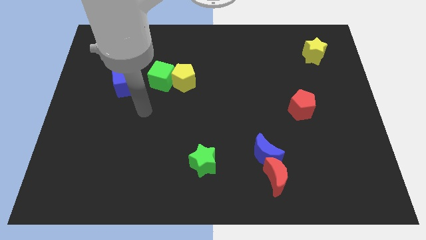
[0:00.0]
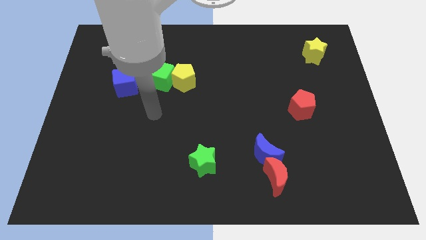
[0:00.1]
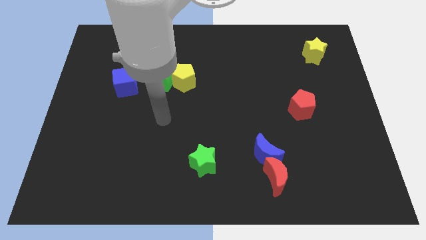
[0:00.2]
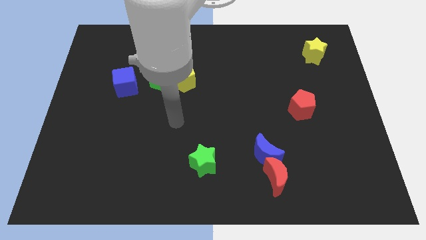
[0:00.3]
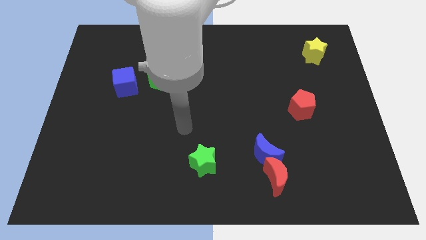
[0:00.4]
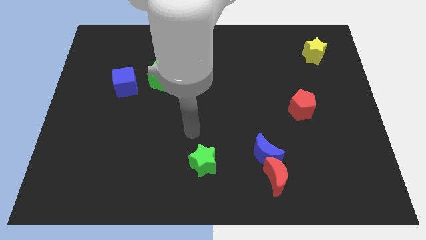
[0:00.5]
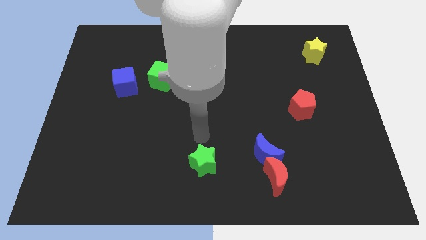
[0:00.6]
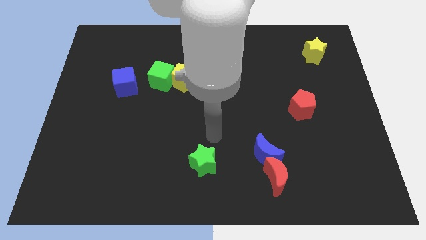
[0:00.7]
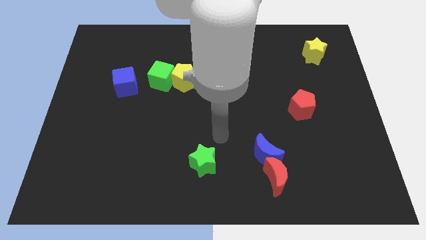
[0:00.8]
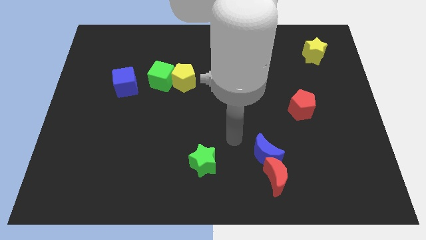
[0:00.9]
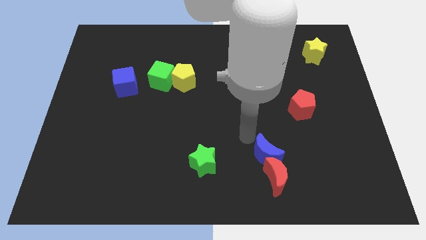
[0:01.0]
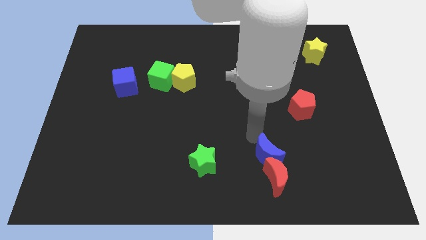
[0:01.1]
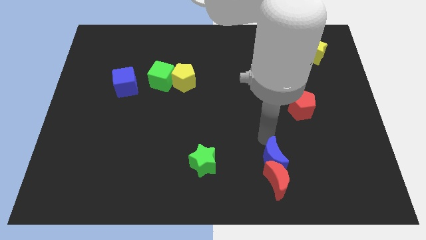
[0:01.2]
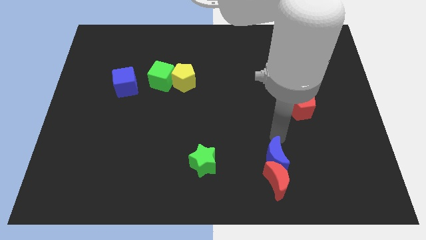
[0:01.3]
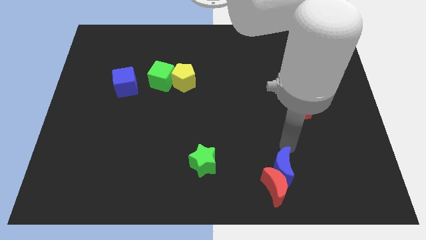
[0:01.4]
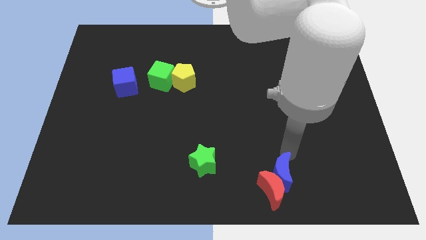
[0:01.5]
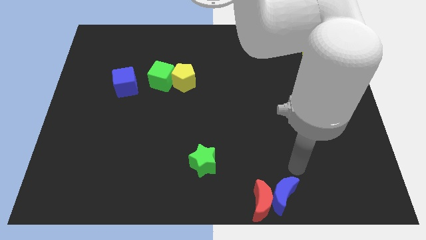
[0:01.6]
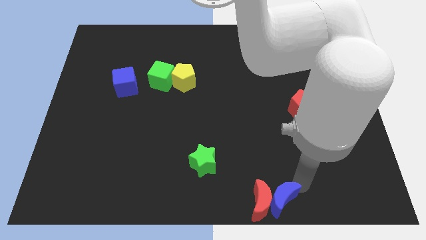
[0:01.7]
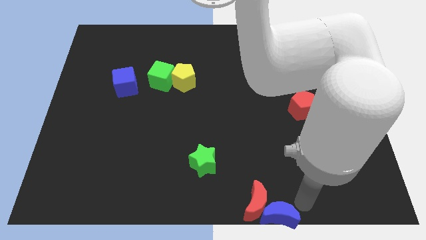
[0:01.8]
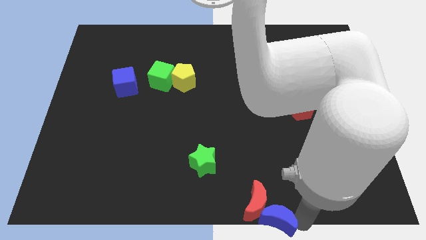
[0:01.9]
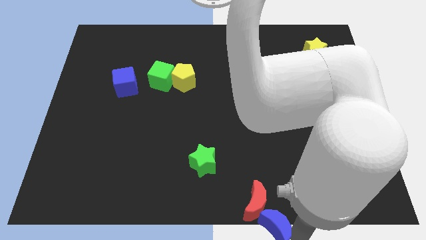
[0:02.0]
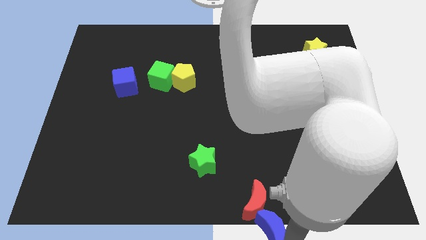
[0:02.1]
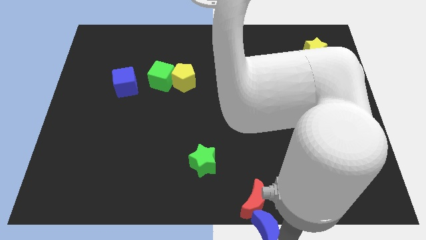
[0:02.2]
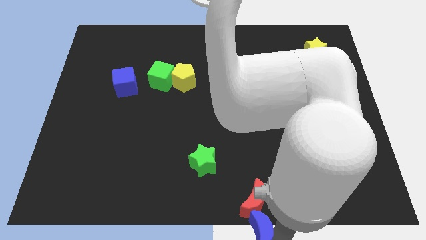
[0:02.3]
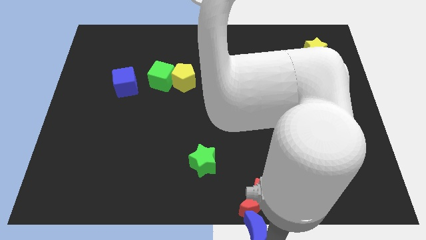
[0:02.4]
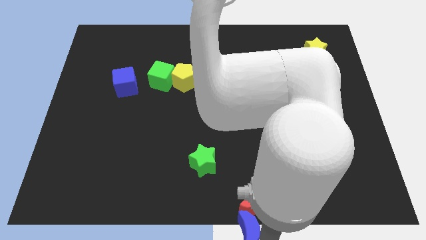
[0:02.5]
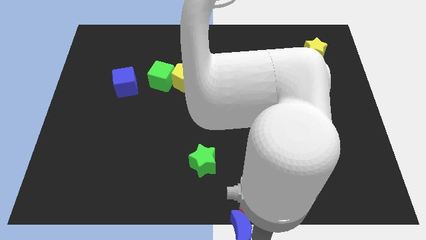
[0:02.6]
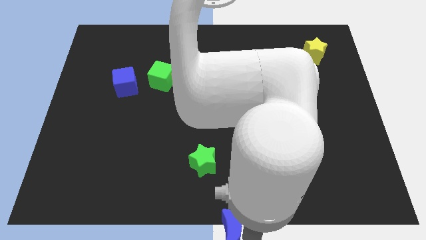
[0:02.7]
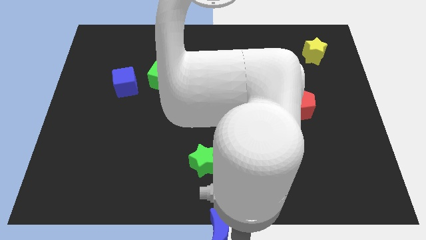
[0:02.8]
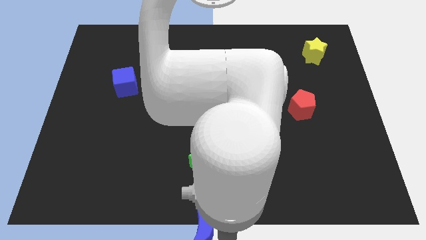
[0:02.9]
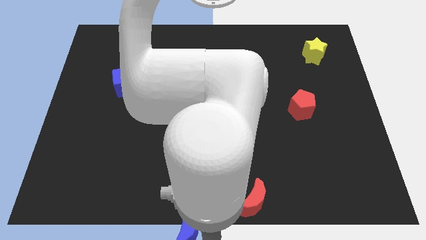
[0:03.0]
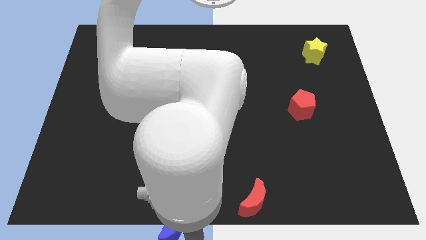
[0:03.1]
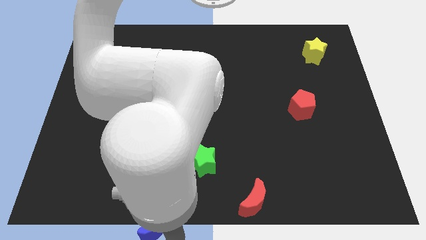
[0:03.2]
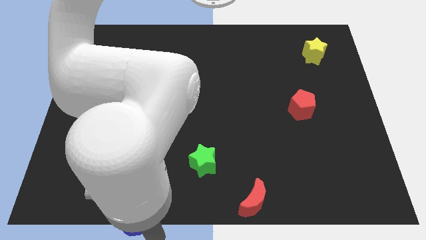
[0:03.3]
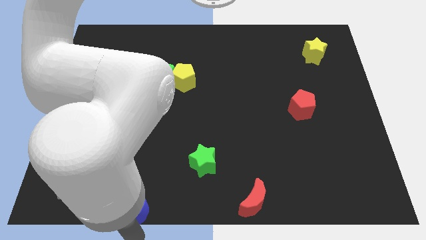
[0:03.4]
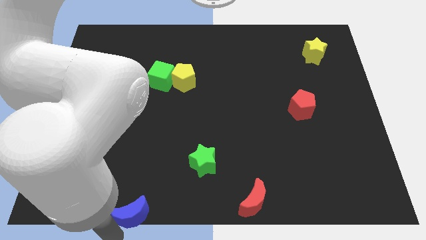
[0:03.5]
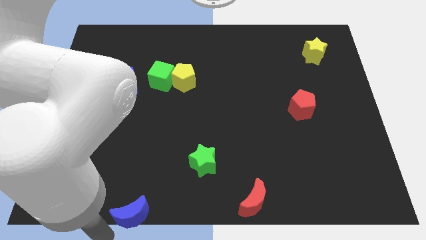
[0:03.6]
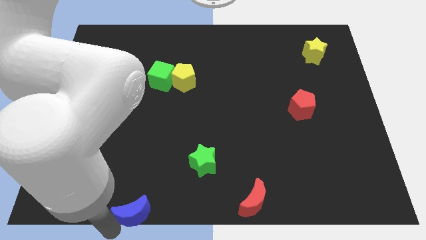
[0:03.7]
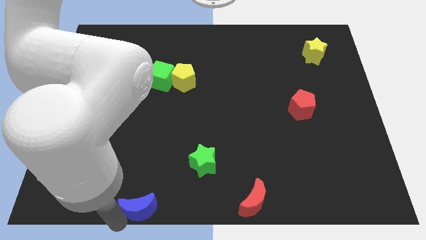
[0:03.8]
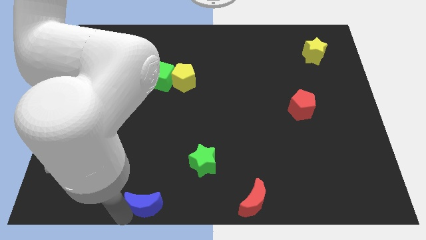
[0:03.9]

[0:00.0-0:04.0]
slide the blue moon a little bit left

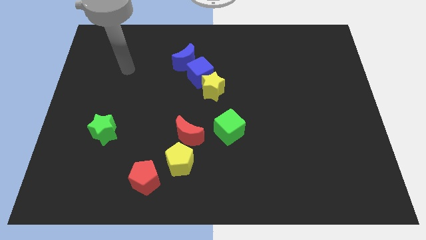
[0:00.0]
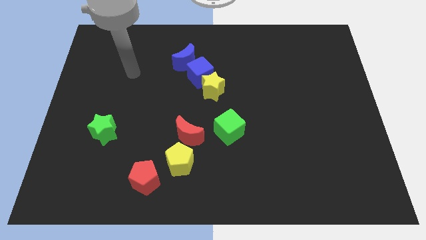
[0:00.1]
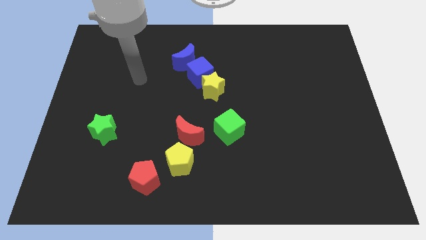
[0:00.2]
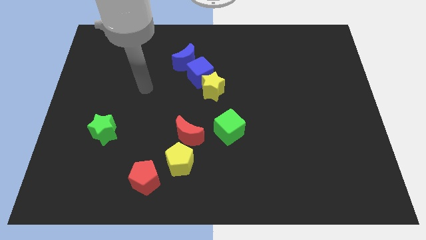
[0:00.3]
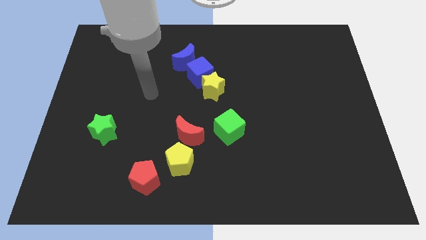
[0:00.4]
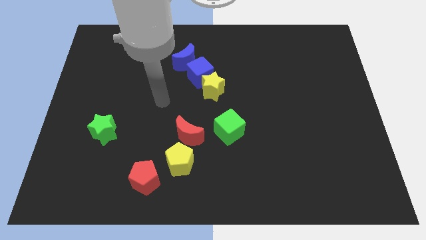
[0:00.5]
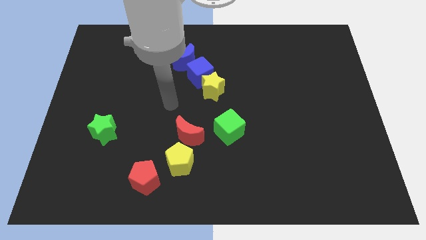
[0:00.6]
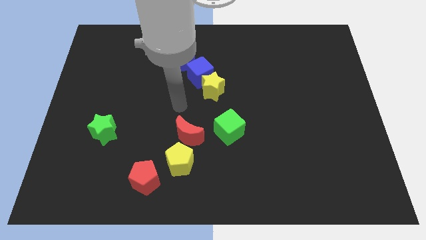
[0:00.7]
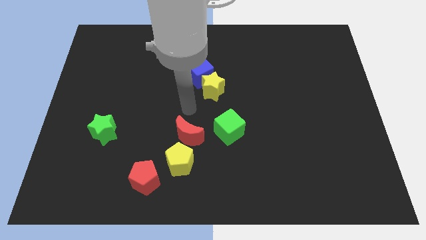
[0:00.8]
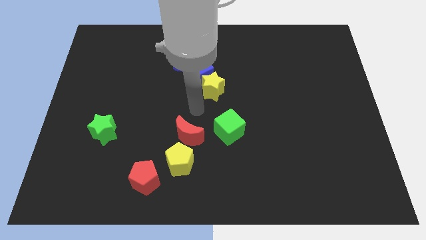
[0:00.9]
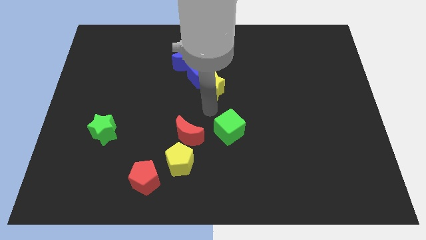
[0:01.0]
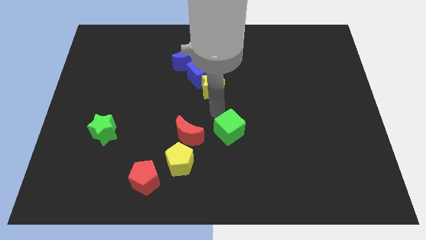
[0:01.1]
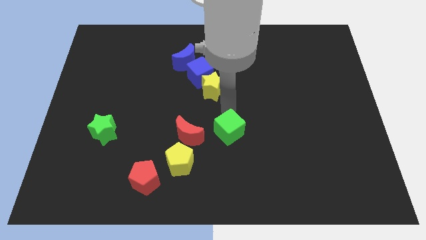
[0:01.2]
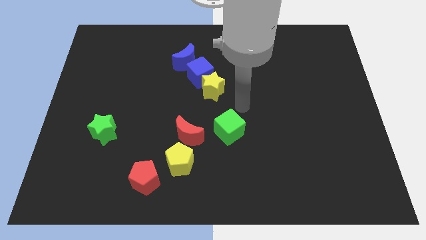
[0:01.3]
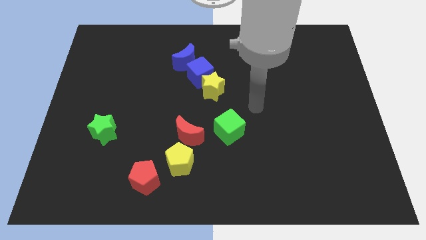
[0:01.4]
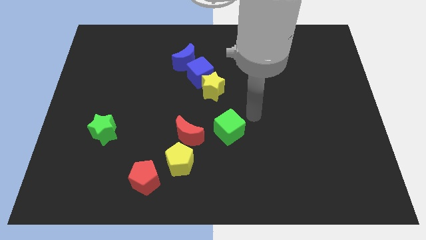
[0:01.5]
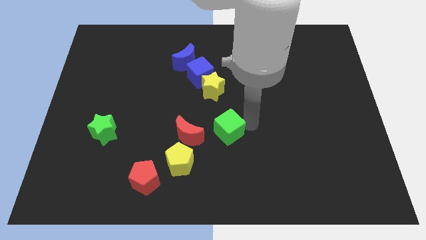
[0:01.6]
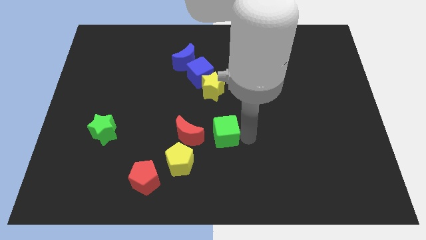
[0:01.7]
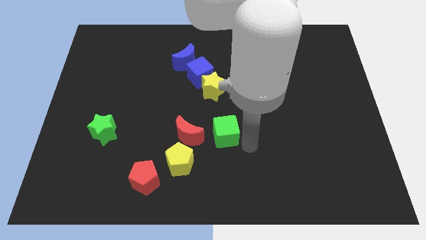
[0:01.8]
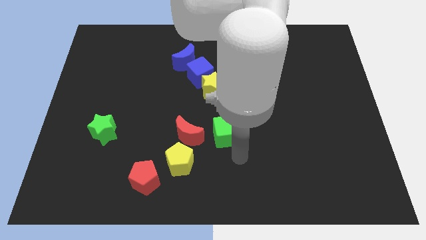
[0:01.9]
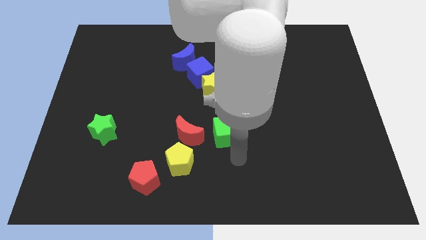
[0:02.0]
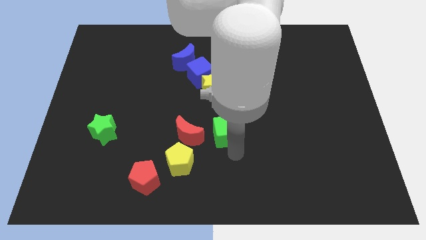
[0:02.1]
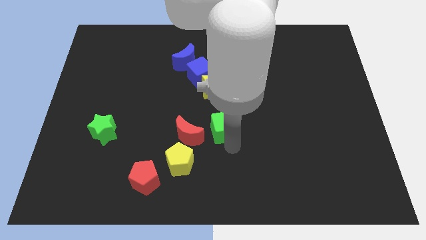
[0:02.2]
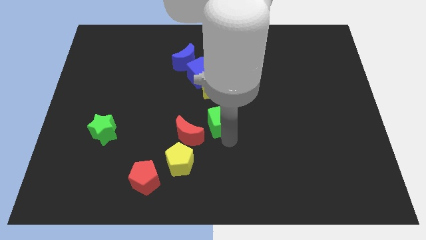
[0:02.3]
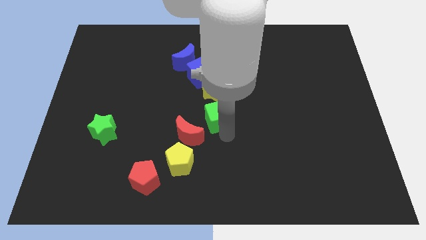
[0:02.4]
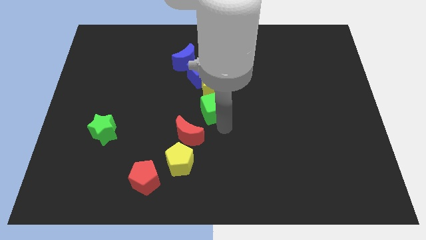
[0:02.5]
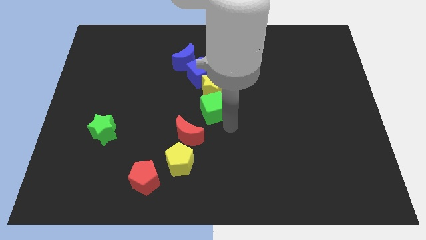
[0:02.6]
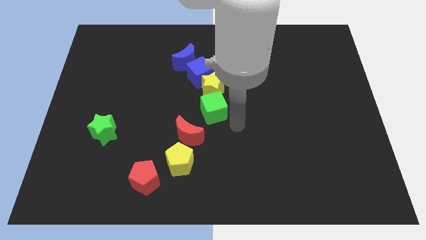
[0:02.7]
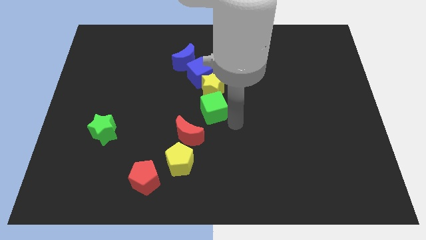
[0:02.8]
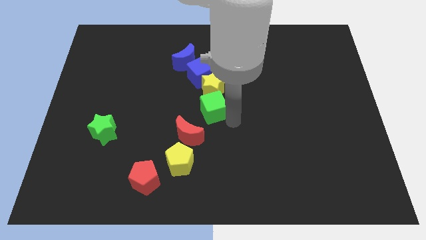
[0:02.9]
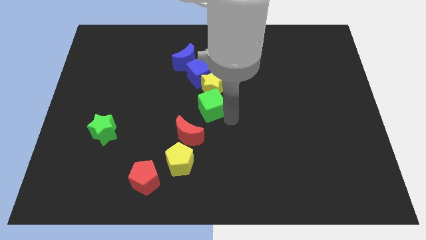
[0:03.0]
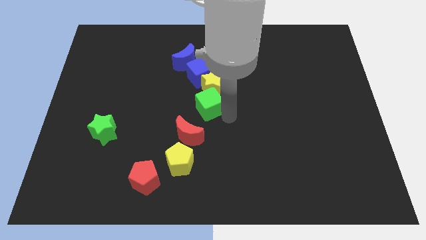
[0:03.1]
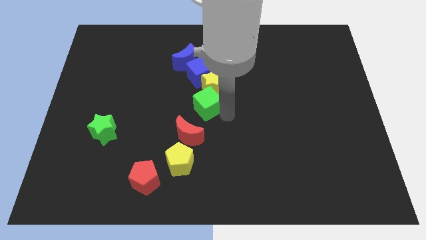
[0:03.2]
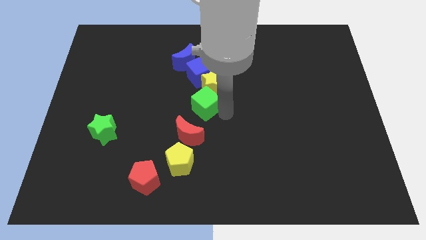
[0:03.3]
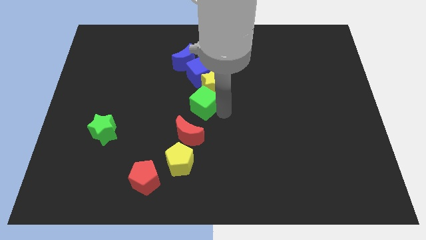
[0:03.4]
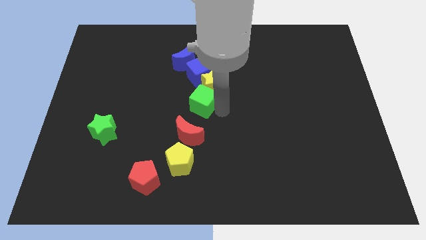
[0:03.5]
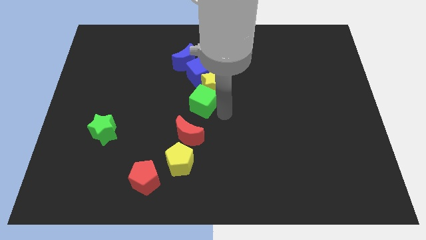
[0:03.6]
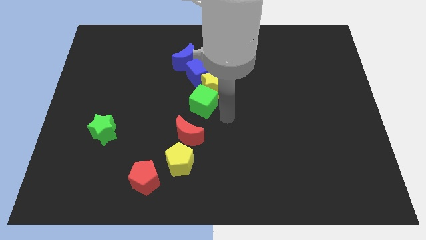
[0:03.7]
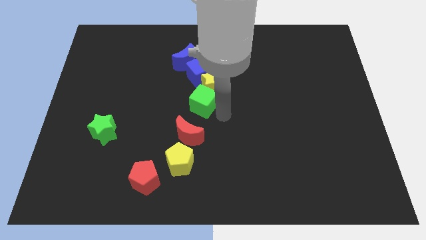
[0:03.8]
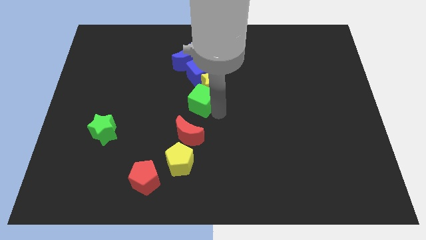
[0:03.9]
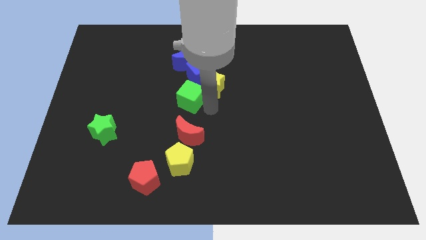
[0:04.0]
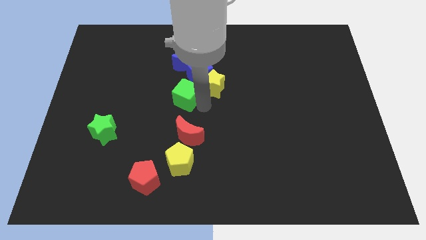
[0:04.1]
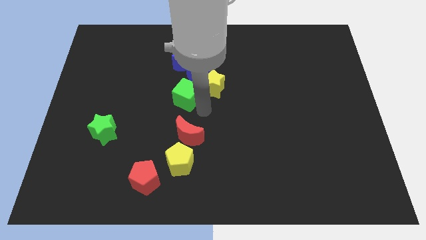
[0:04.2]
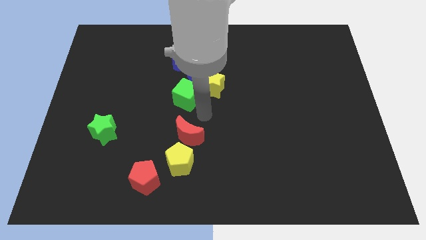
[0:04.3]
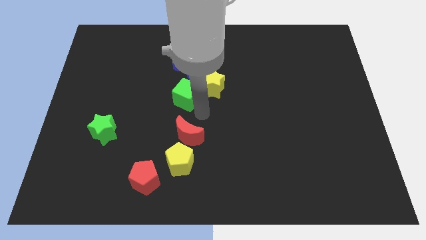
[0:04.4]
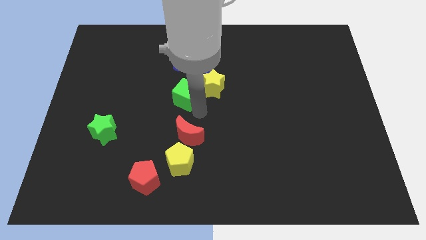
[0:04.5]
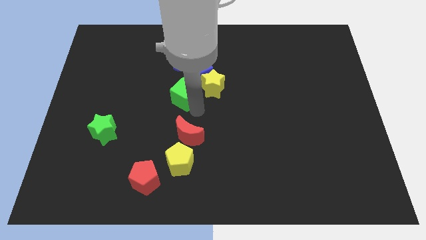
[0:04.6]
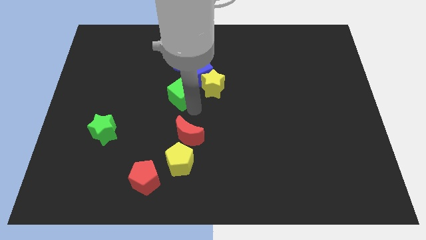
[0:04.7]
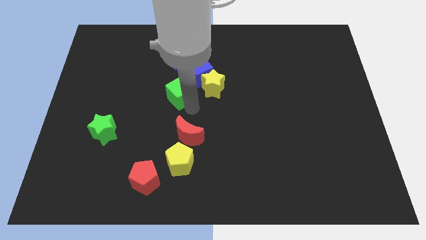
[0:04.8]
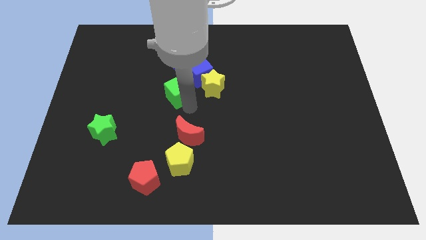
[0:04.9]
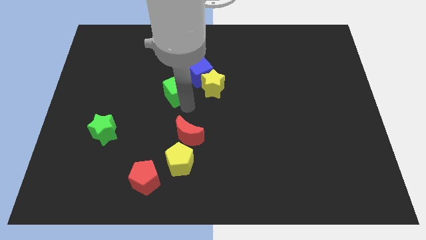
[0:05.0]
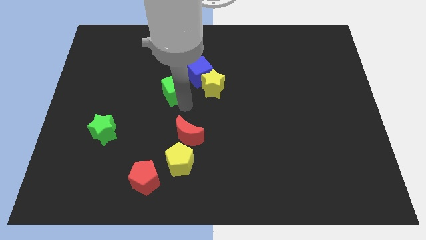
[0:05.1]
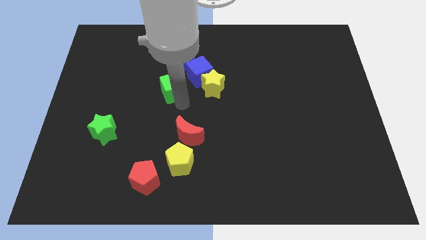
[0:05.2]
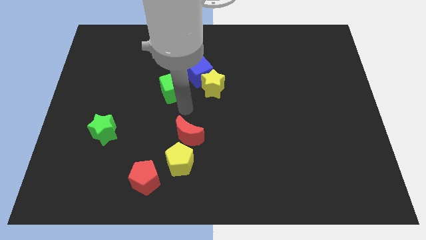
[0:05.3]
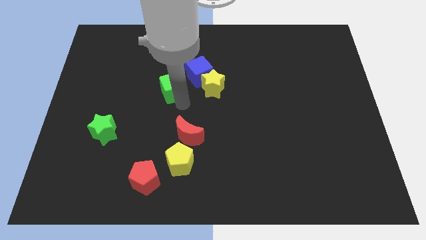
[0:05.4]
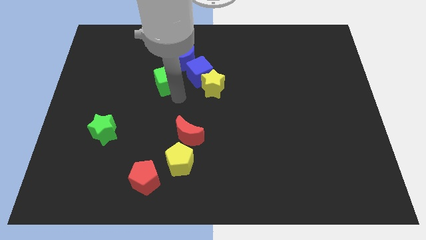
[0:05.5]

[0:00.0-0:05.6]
move the green cube diagonally up and left
